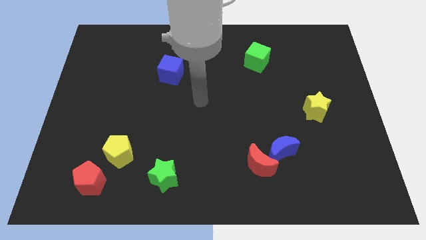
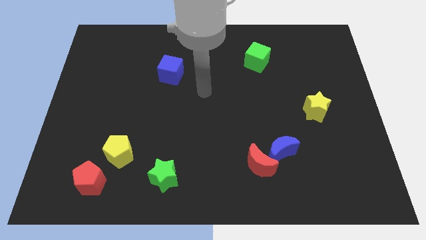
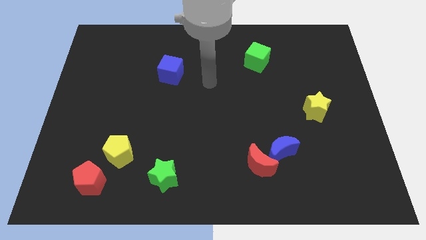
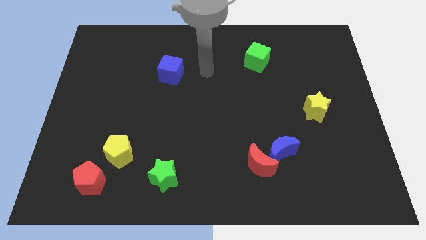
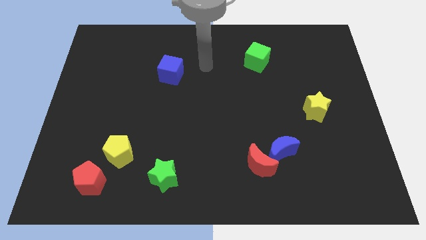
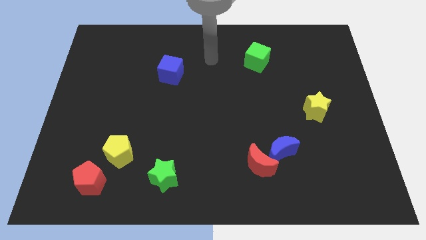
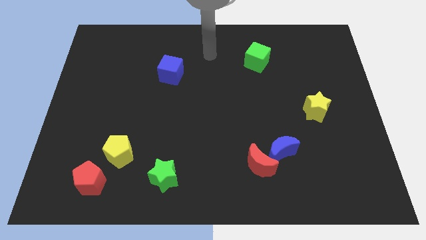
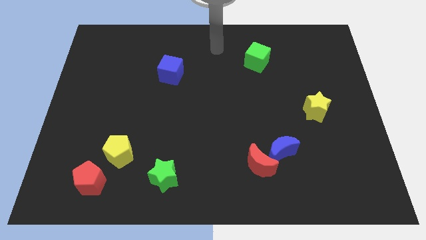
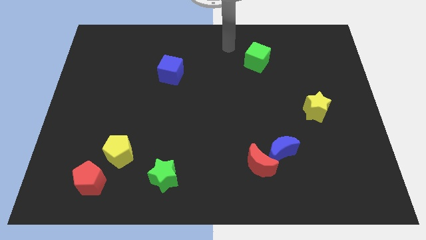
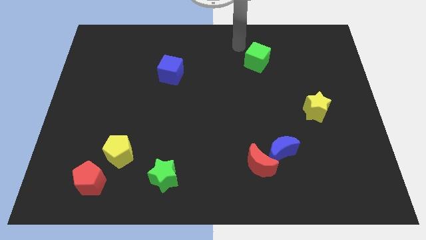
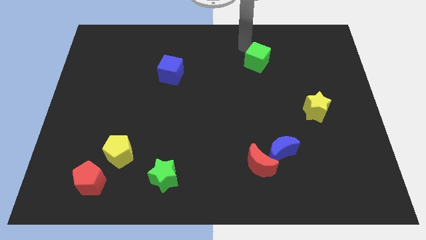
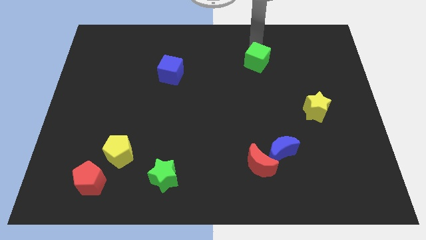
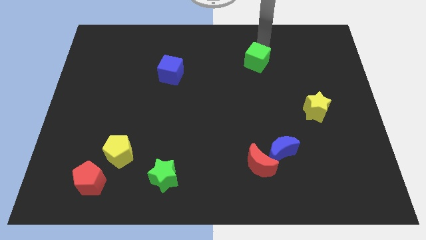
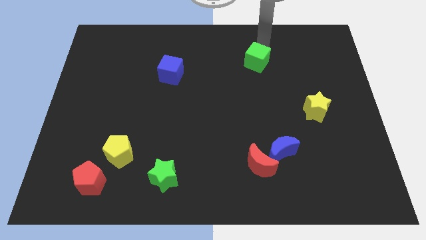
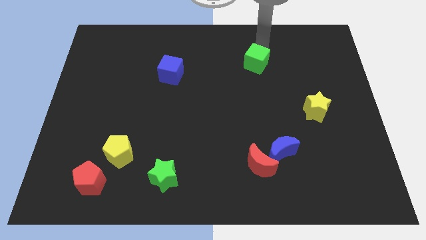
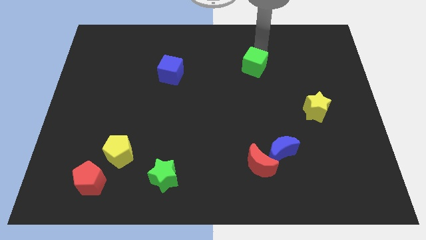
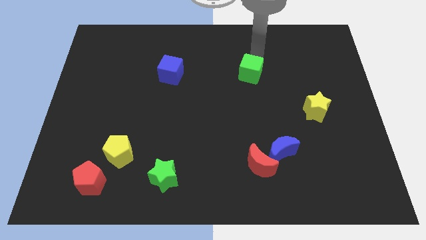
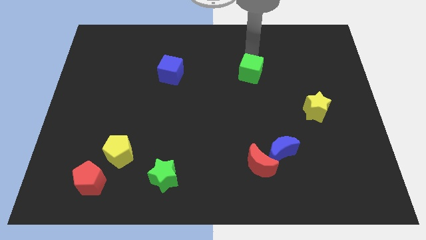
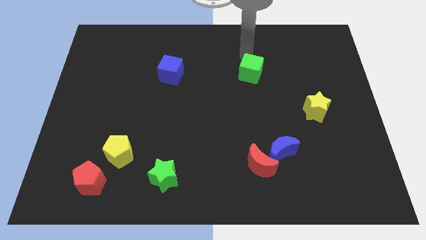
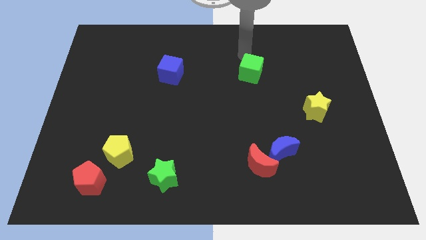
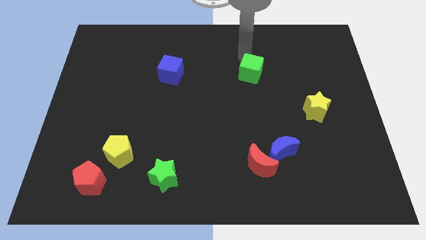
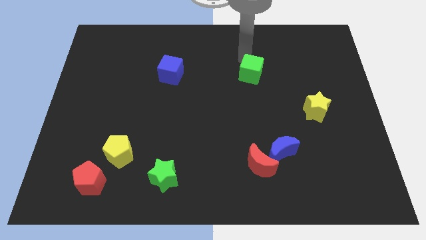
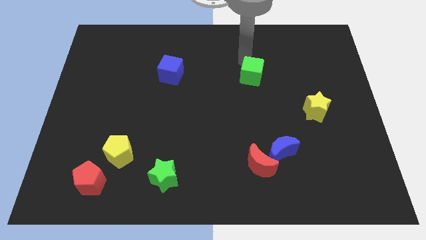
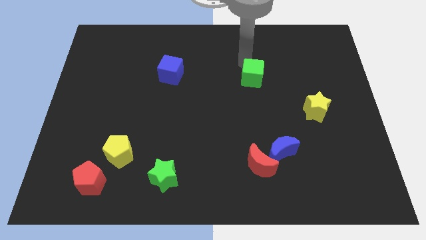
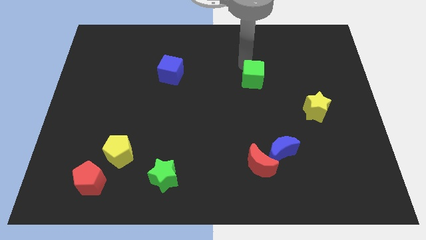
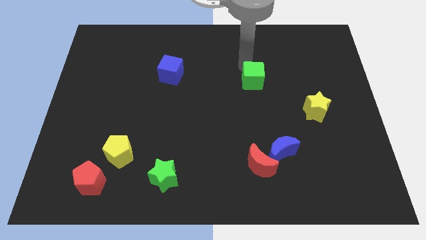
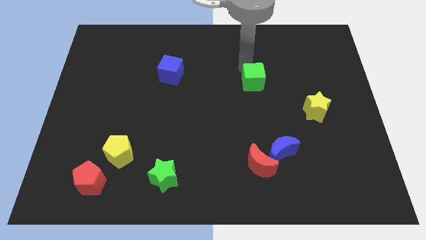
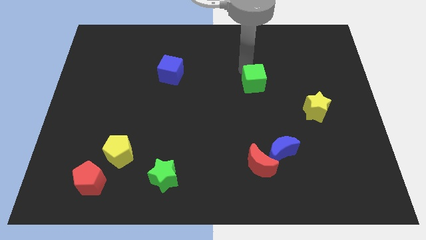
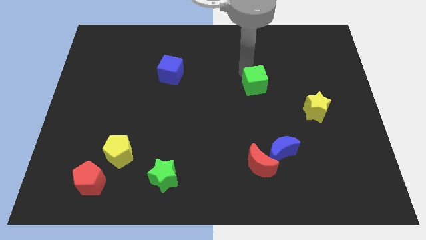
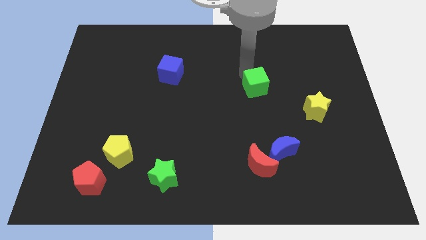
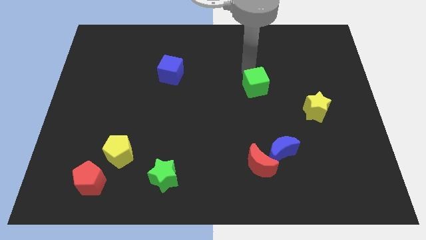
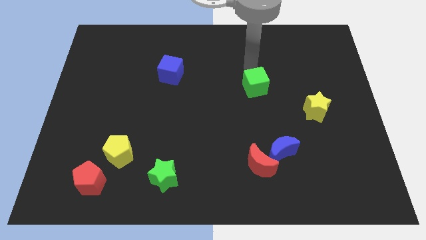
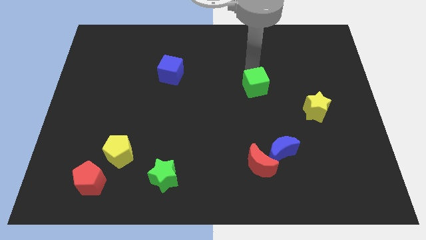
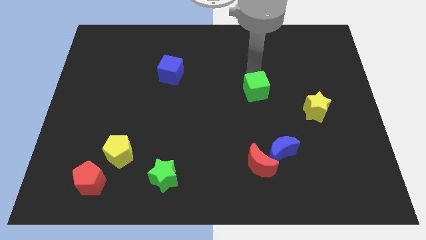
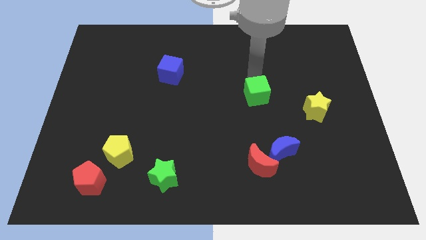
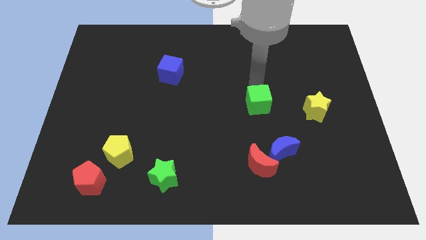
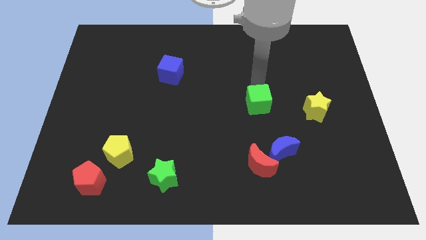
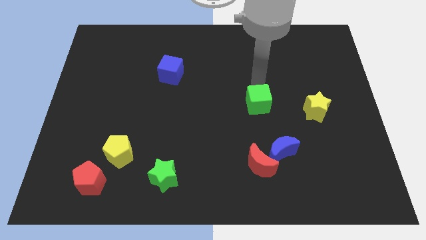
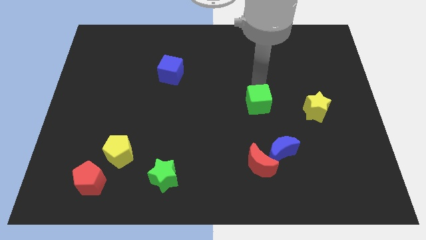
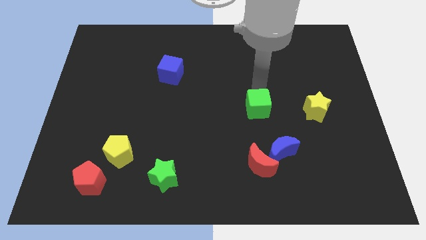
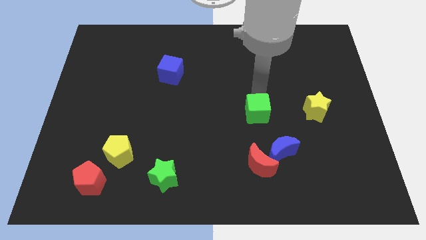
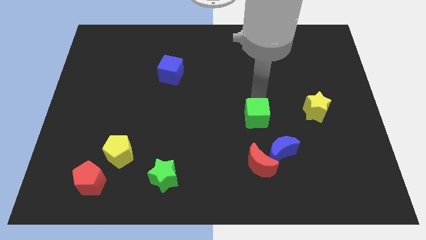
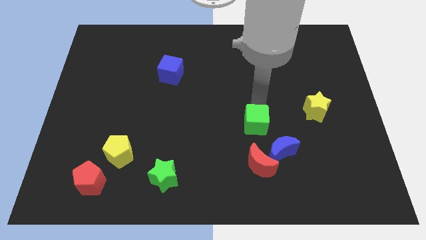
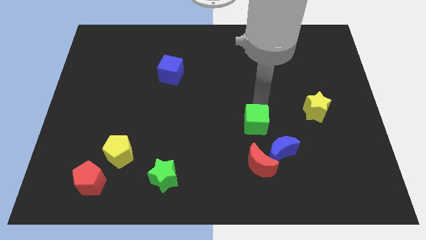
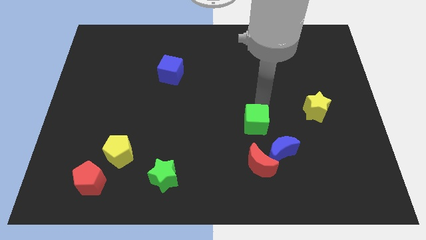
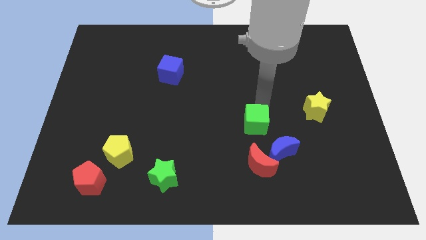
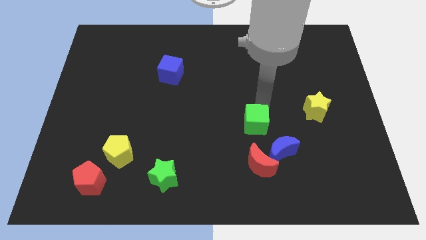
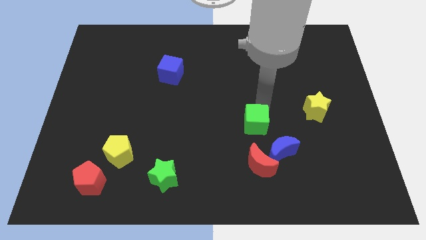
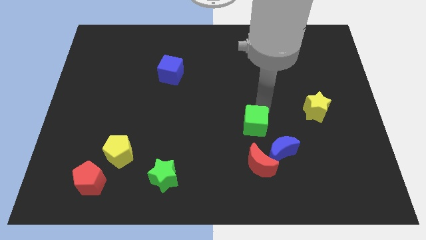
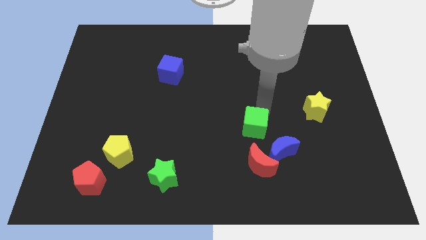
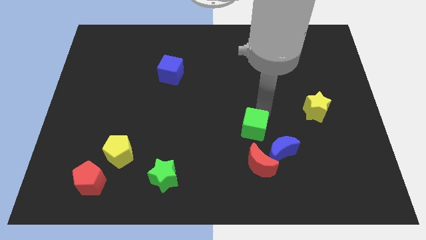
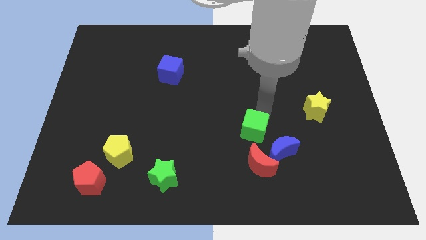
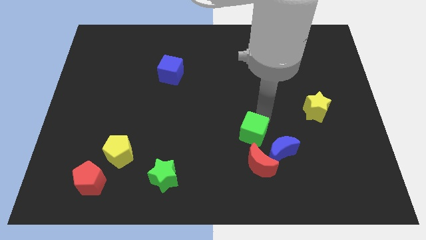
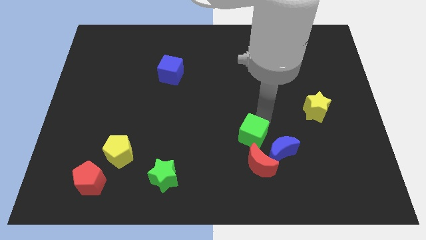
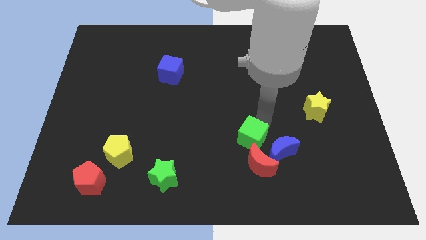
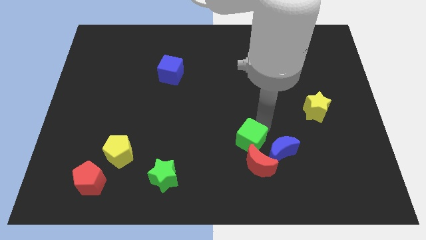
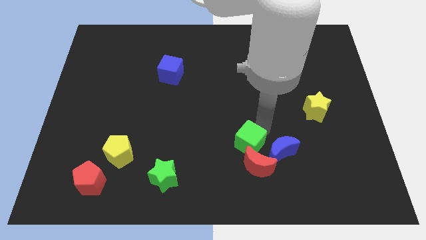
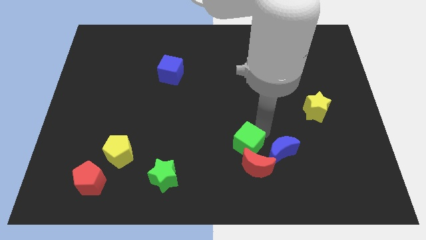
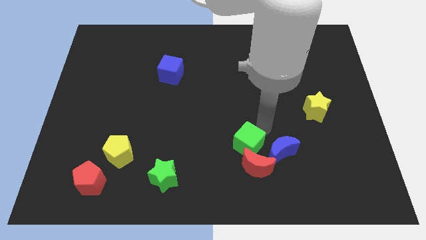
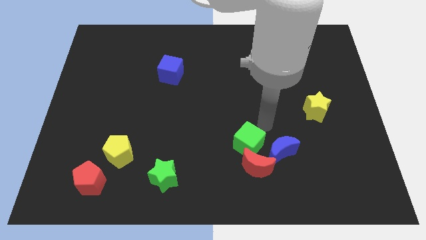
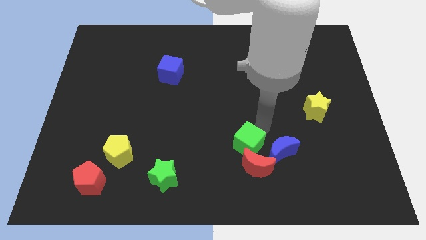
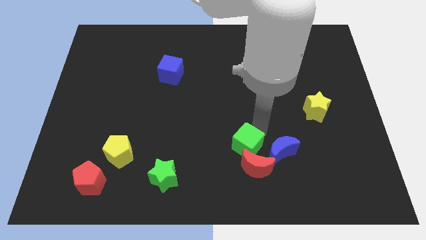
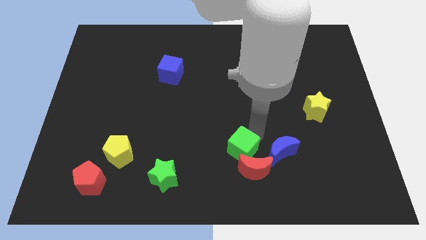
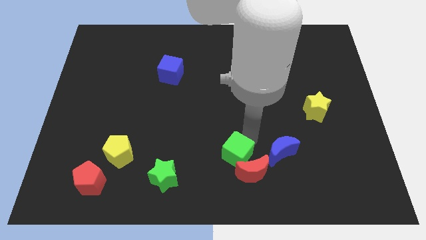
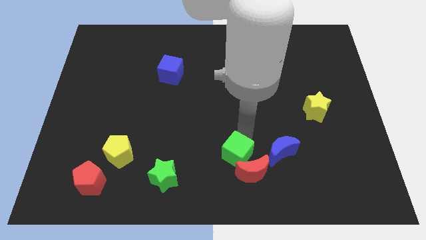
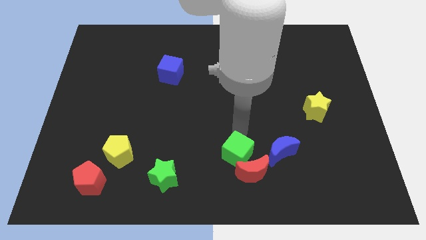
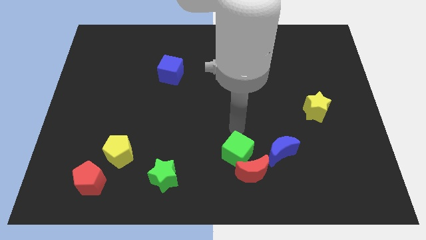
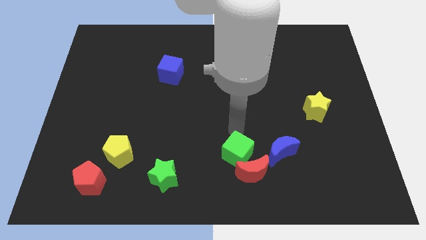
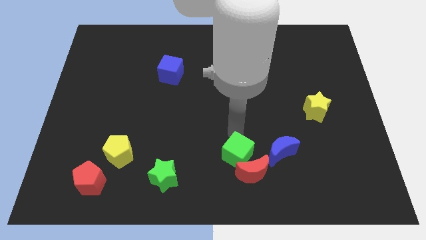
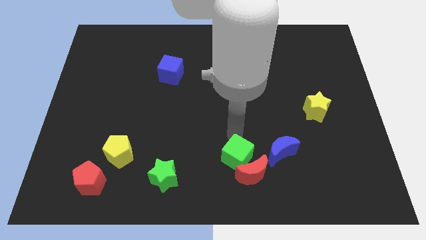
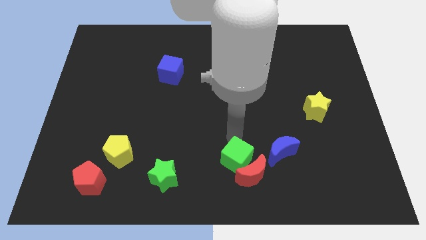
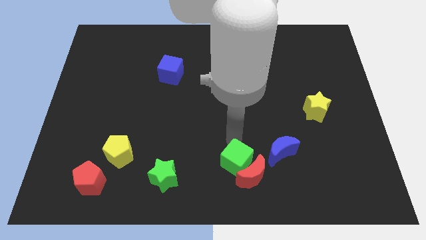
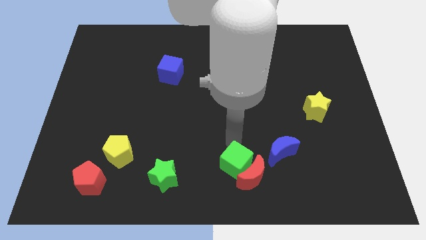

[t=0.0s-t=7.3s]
put the green cube to the bottom left of the blue moon
